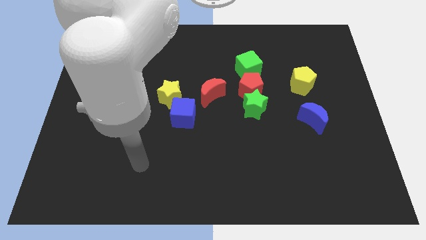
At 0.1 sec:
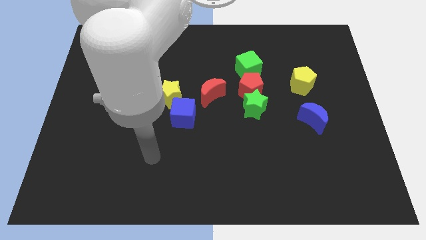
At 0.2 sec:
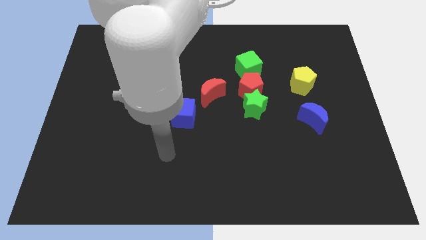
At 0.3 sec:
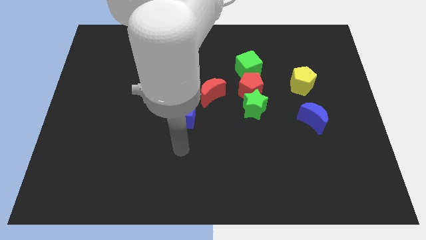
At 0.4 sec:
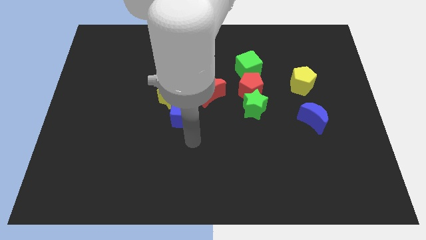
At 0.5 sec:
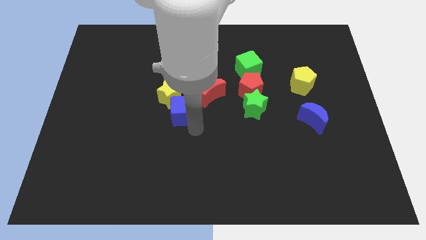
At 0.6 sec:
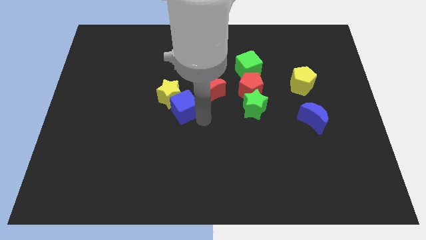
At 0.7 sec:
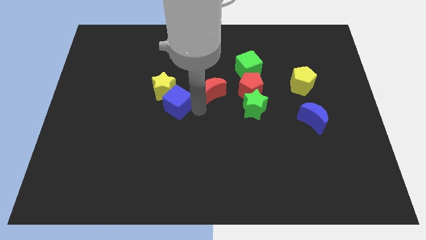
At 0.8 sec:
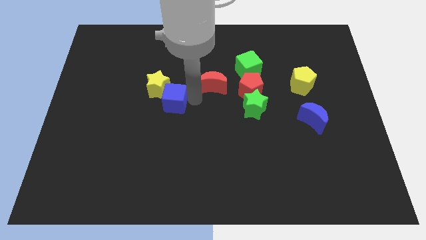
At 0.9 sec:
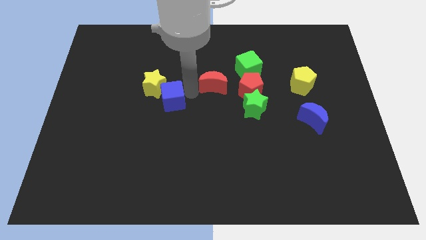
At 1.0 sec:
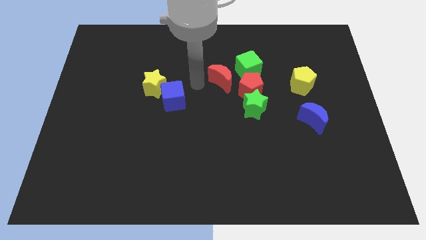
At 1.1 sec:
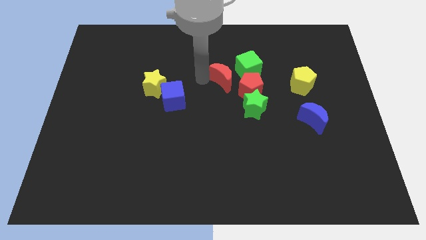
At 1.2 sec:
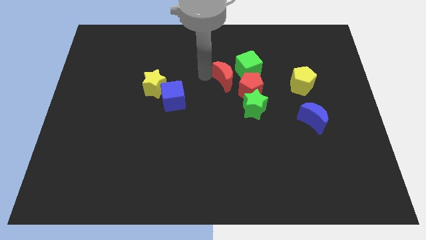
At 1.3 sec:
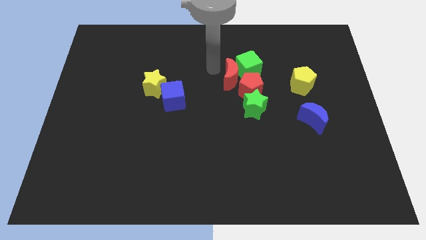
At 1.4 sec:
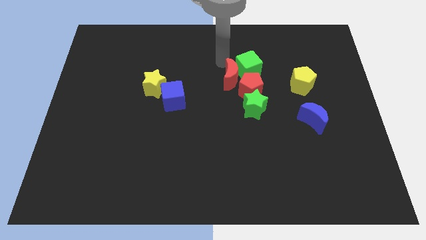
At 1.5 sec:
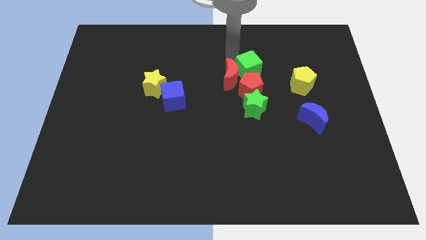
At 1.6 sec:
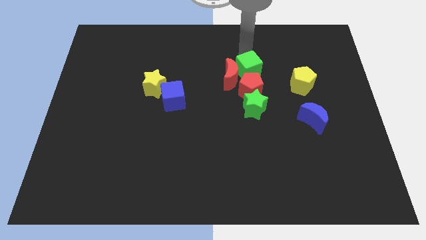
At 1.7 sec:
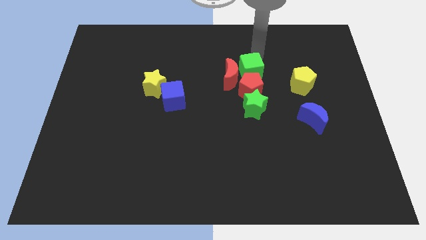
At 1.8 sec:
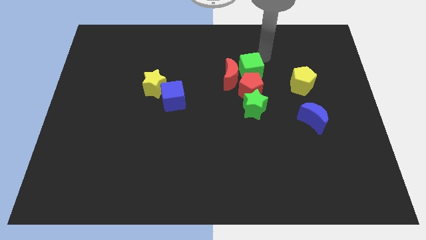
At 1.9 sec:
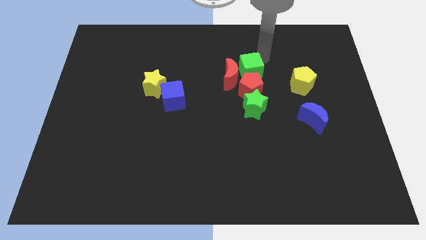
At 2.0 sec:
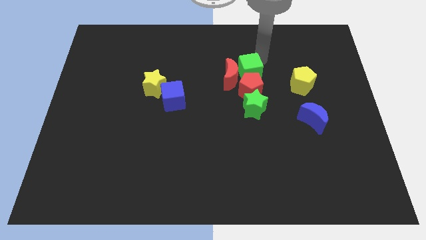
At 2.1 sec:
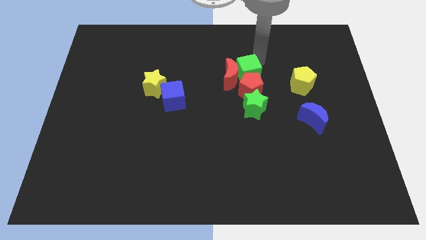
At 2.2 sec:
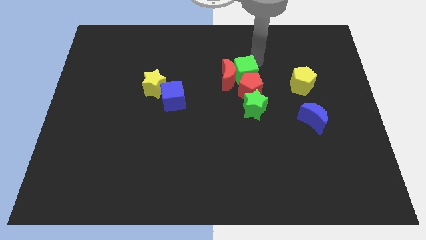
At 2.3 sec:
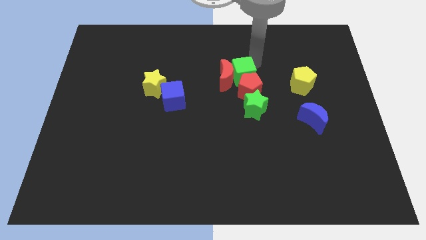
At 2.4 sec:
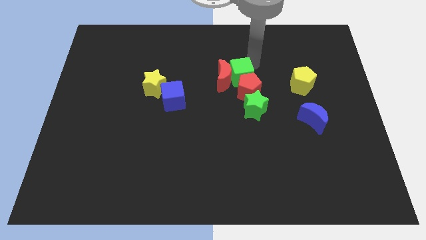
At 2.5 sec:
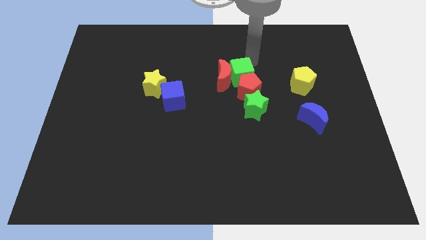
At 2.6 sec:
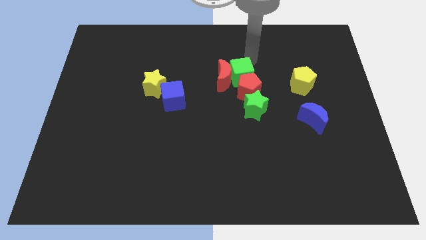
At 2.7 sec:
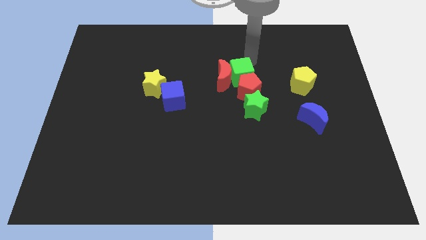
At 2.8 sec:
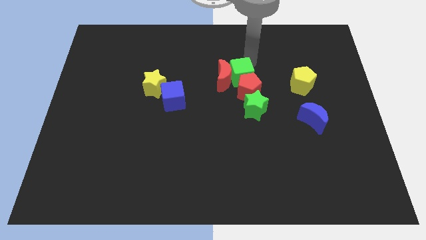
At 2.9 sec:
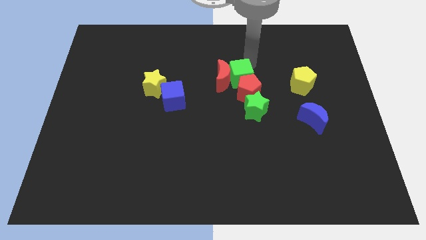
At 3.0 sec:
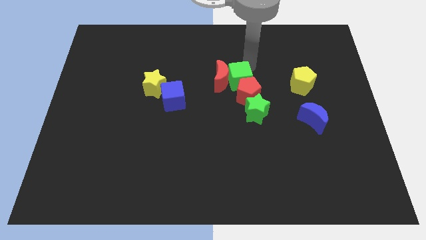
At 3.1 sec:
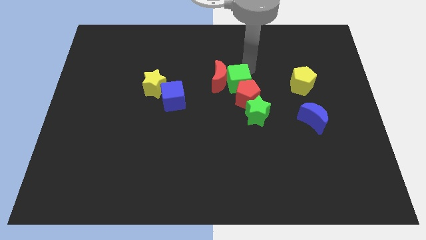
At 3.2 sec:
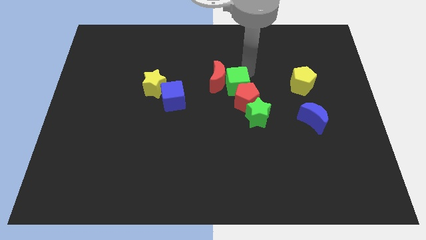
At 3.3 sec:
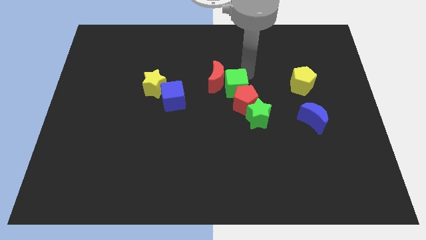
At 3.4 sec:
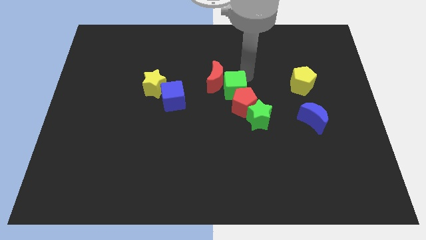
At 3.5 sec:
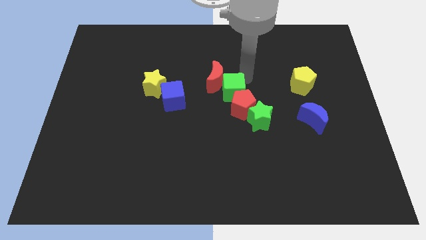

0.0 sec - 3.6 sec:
slide the green cube down somewhat

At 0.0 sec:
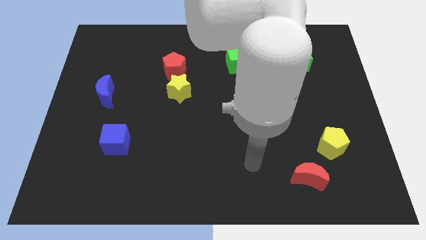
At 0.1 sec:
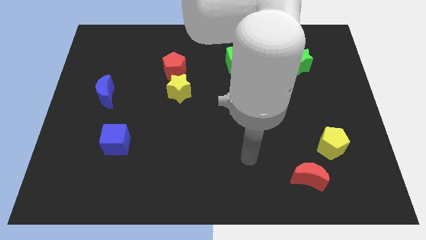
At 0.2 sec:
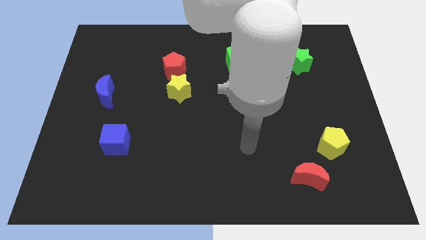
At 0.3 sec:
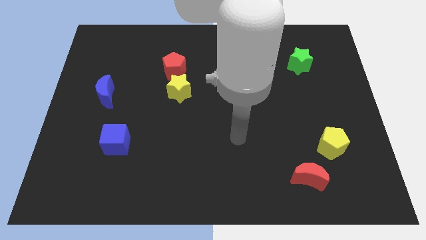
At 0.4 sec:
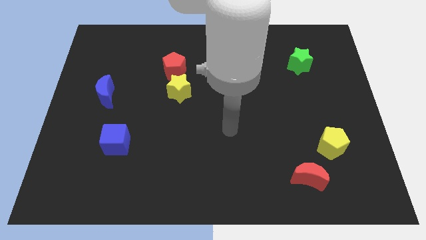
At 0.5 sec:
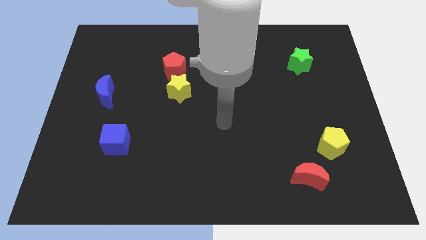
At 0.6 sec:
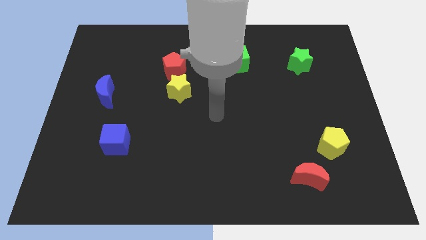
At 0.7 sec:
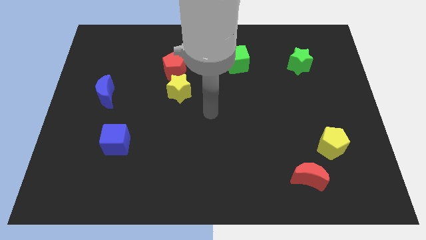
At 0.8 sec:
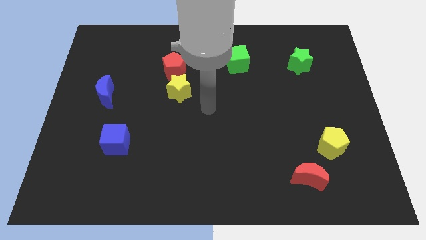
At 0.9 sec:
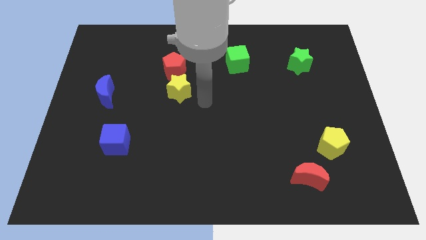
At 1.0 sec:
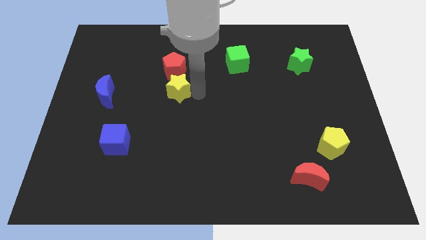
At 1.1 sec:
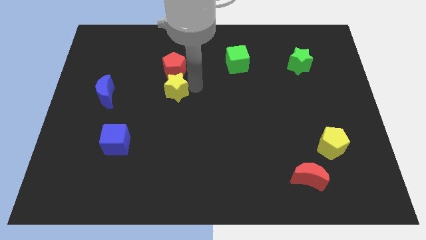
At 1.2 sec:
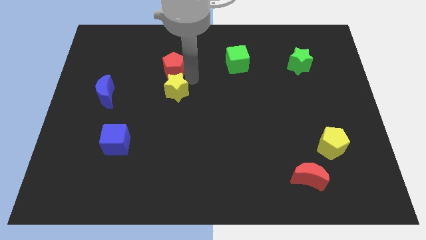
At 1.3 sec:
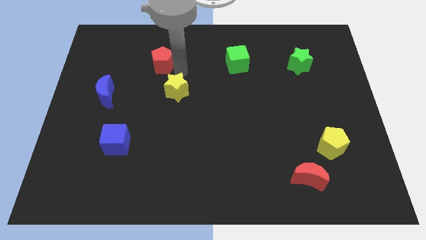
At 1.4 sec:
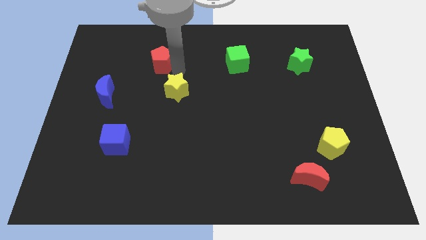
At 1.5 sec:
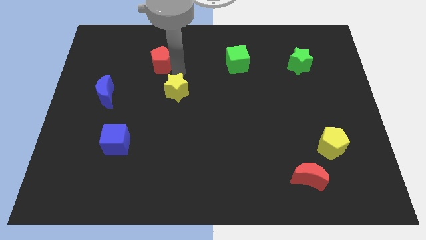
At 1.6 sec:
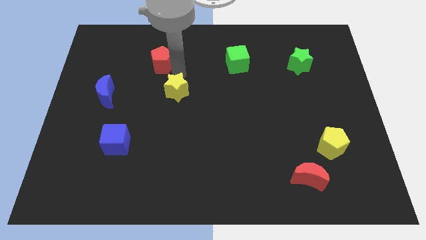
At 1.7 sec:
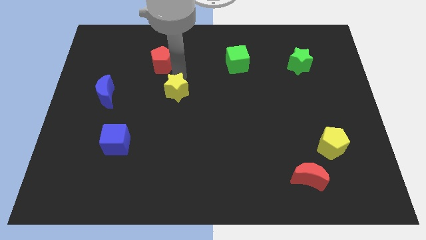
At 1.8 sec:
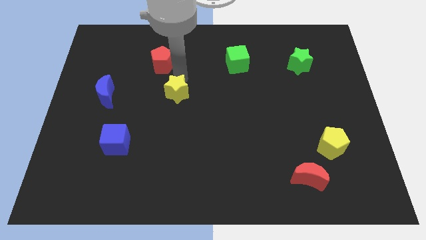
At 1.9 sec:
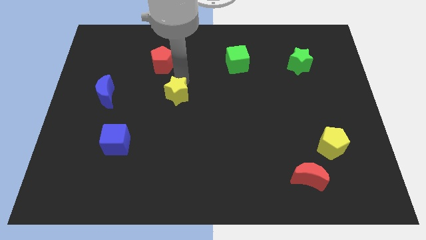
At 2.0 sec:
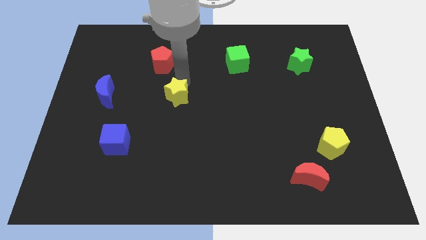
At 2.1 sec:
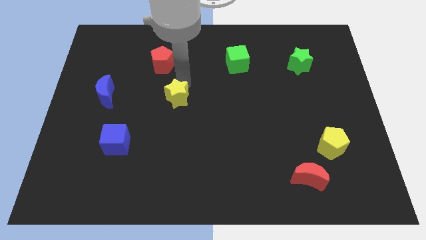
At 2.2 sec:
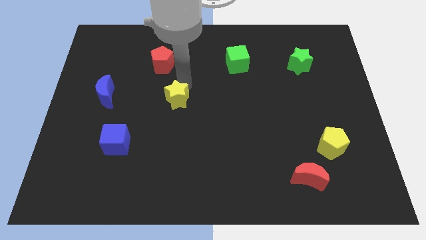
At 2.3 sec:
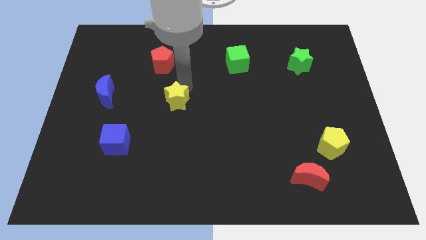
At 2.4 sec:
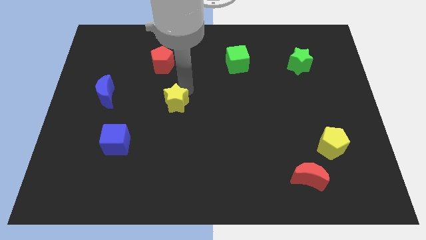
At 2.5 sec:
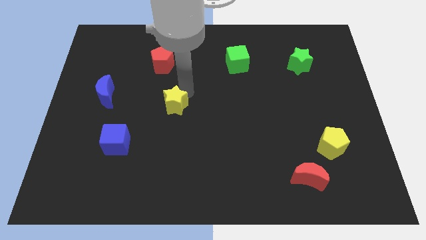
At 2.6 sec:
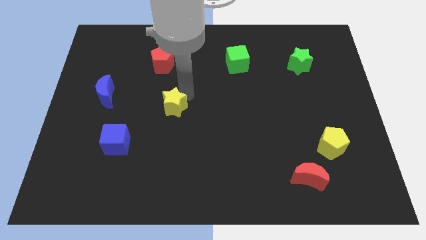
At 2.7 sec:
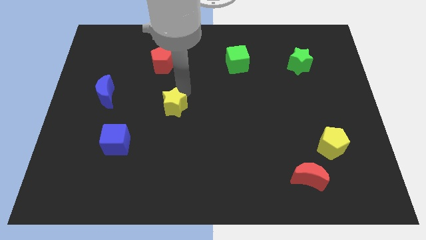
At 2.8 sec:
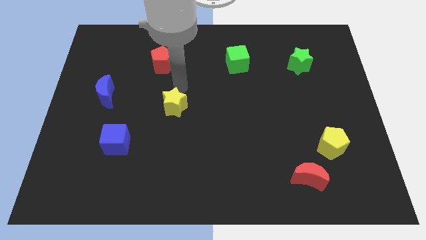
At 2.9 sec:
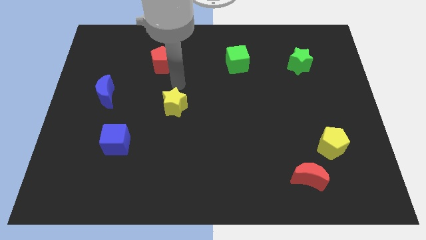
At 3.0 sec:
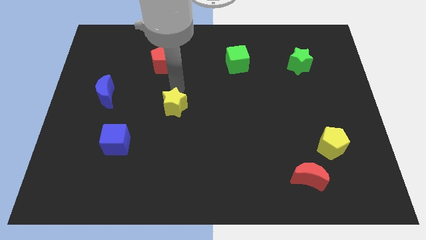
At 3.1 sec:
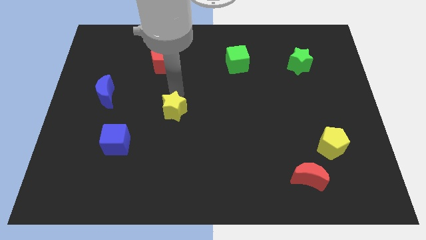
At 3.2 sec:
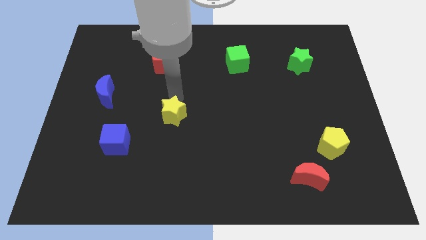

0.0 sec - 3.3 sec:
slide the yellow star downwards a bit

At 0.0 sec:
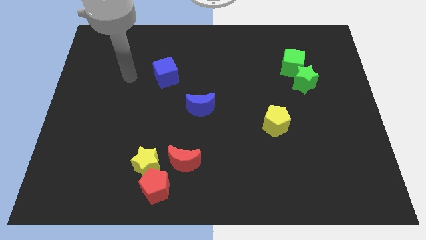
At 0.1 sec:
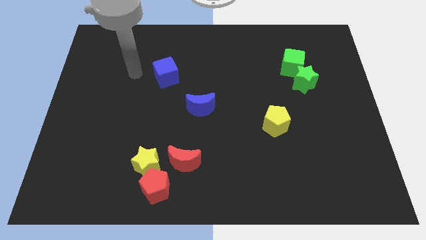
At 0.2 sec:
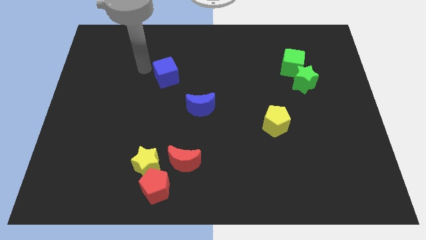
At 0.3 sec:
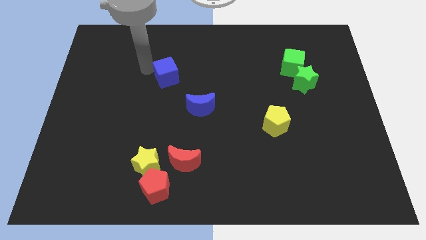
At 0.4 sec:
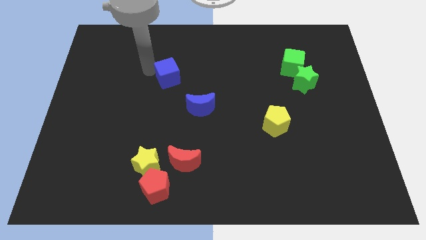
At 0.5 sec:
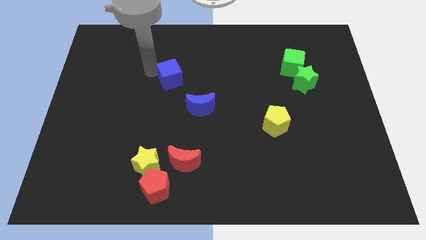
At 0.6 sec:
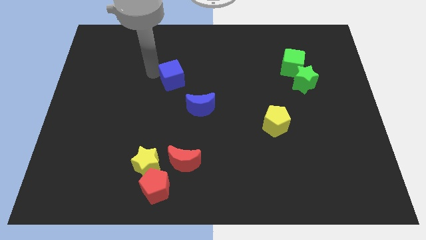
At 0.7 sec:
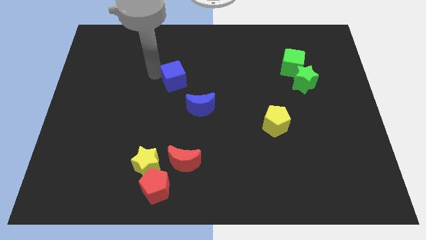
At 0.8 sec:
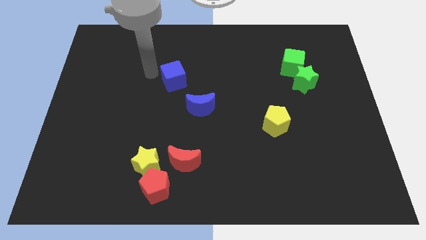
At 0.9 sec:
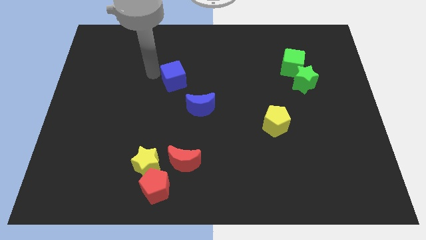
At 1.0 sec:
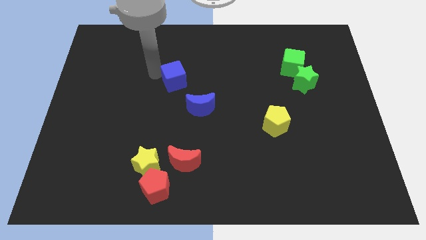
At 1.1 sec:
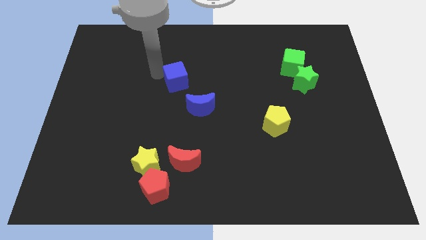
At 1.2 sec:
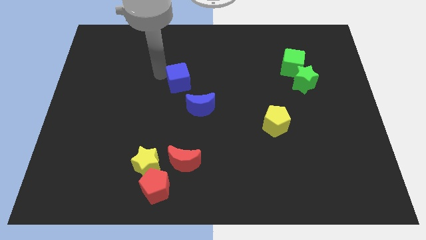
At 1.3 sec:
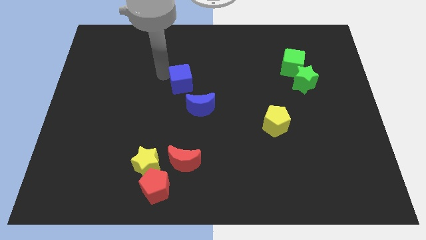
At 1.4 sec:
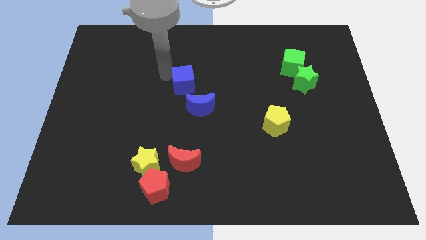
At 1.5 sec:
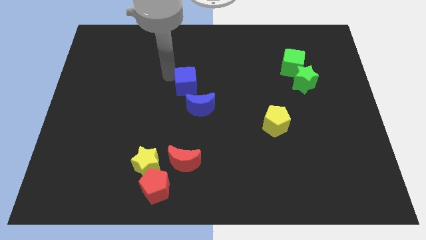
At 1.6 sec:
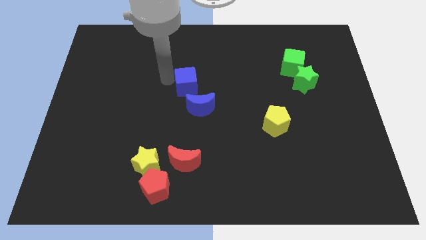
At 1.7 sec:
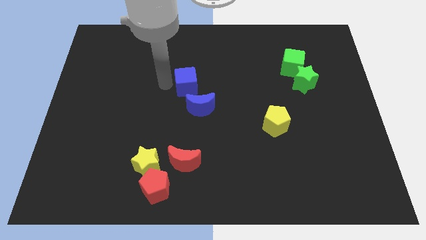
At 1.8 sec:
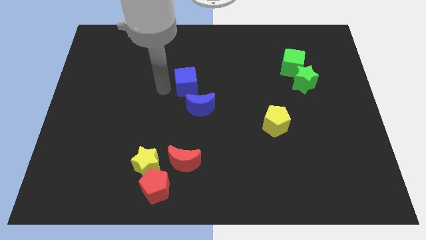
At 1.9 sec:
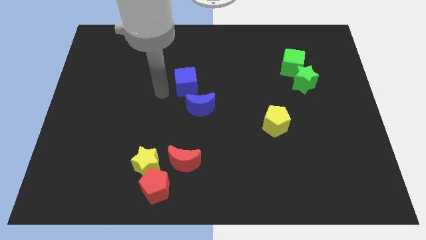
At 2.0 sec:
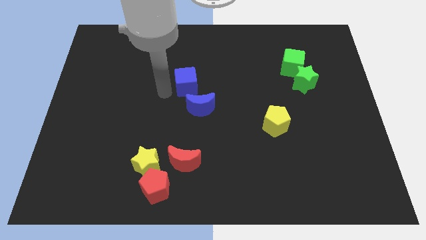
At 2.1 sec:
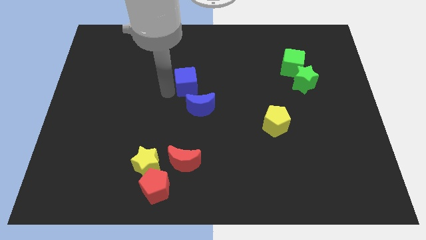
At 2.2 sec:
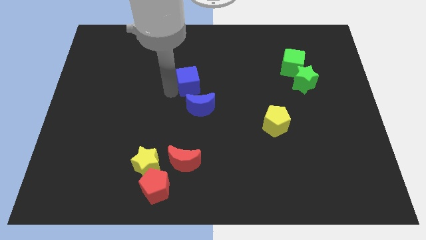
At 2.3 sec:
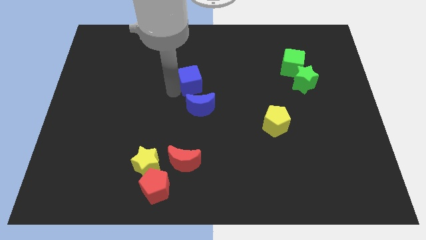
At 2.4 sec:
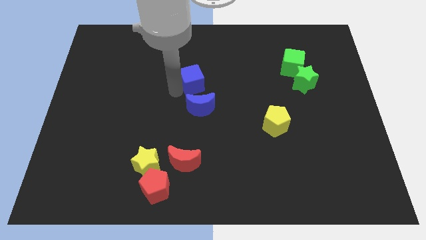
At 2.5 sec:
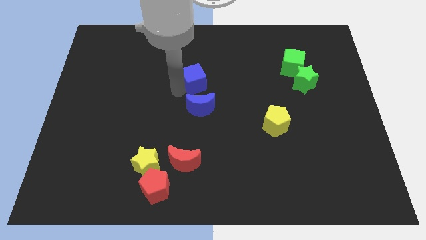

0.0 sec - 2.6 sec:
slide the blue cube a little bit right
